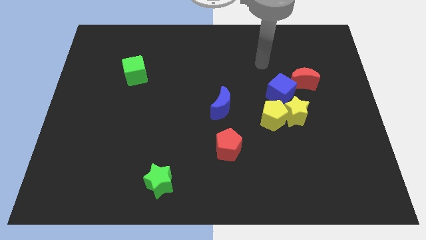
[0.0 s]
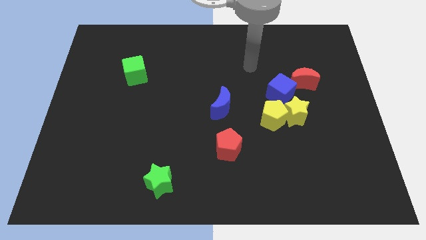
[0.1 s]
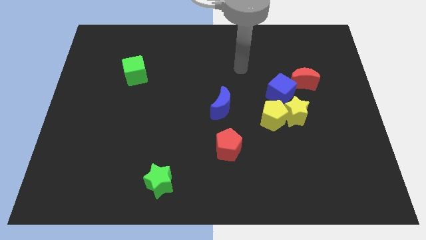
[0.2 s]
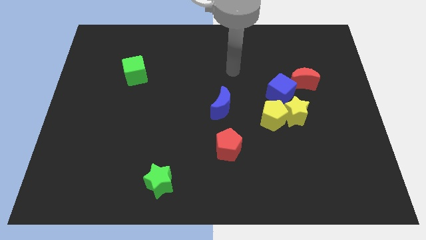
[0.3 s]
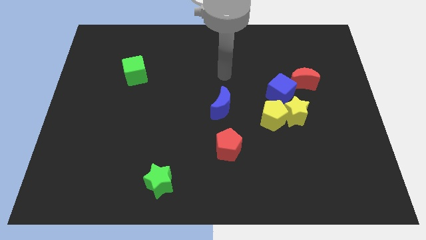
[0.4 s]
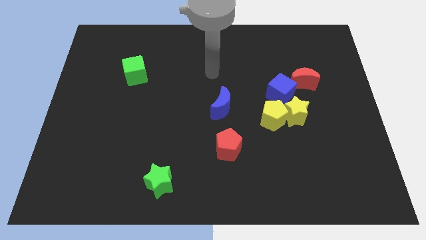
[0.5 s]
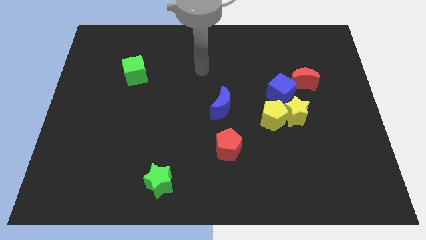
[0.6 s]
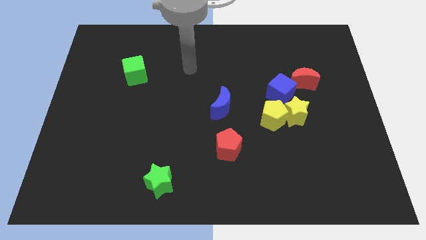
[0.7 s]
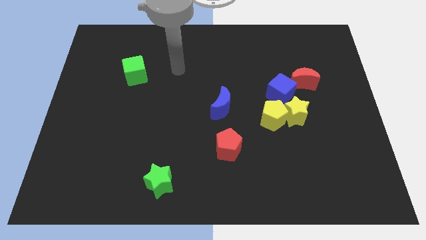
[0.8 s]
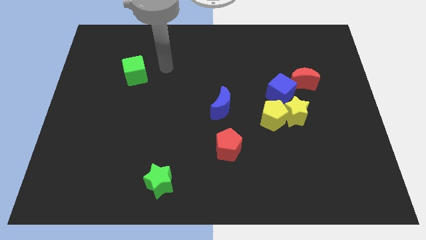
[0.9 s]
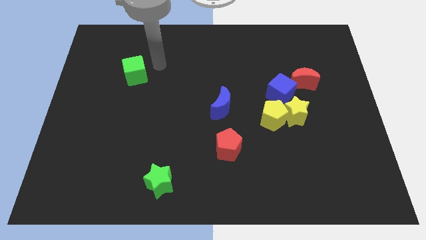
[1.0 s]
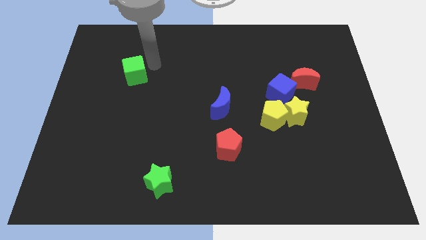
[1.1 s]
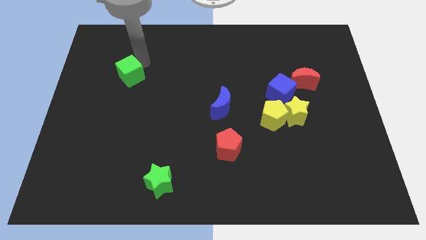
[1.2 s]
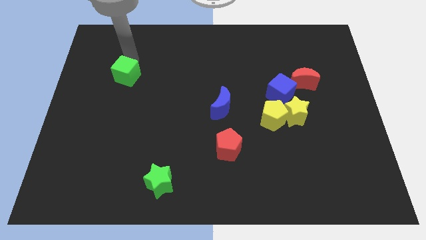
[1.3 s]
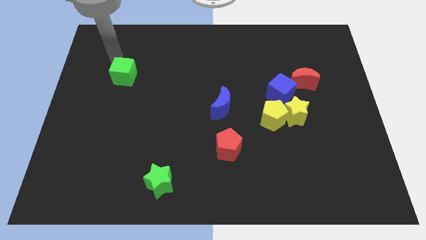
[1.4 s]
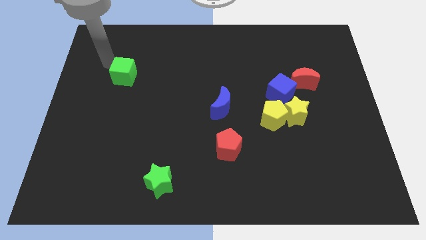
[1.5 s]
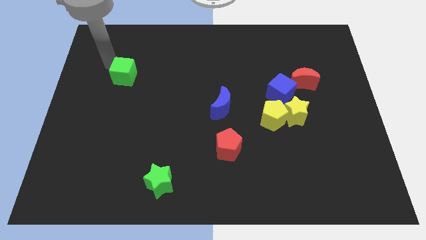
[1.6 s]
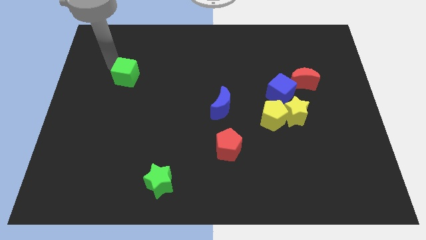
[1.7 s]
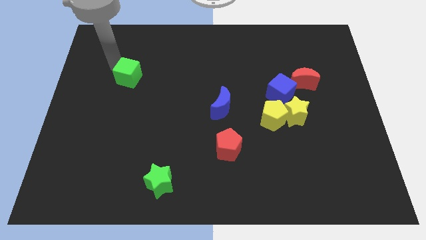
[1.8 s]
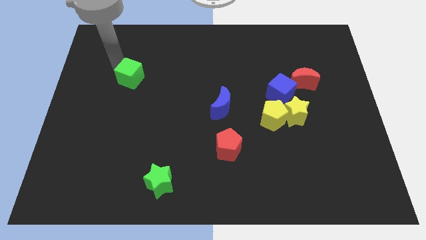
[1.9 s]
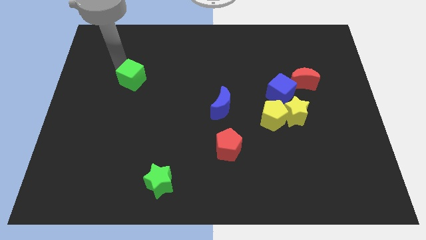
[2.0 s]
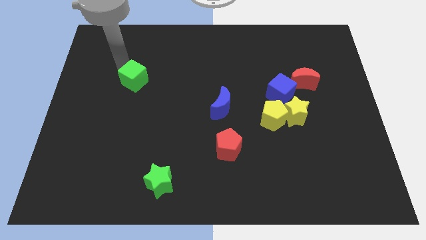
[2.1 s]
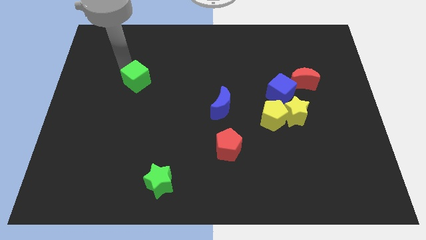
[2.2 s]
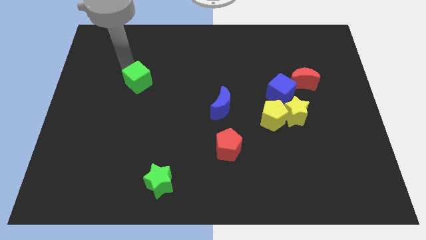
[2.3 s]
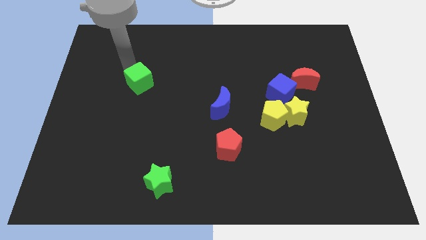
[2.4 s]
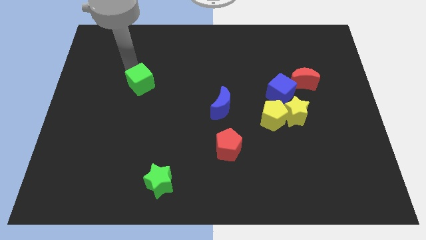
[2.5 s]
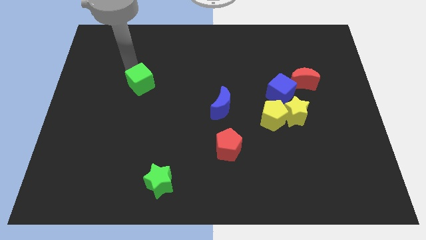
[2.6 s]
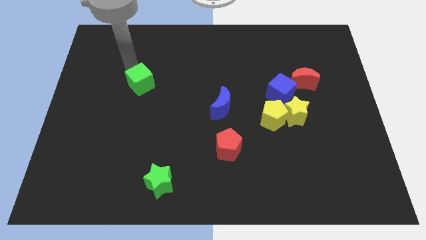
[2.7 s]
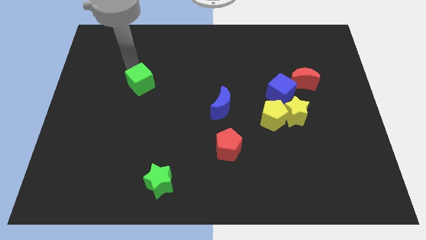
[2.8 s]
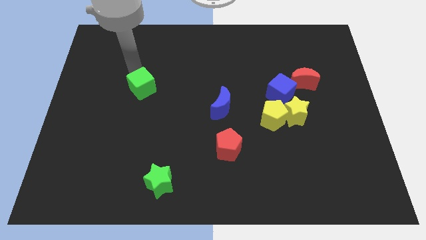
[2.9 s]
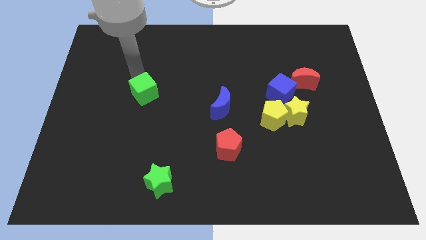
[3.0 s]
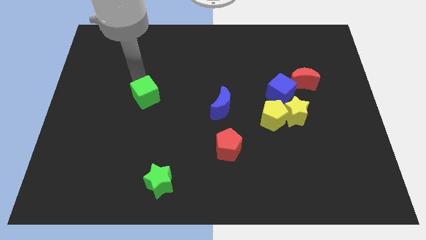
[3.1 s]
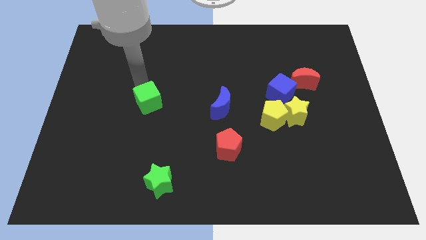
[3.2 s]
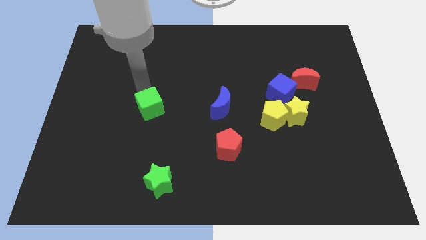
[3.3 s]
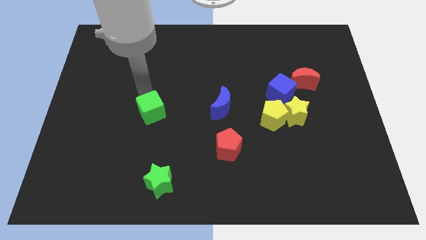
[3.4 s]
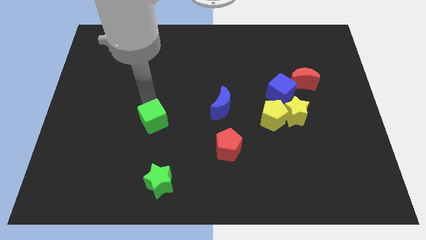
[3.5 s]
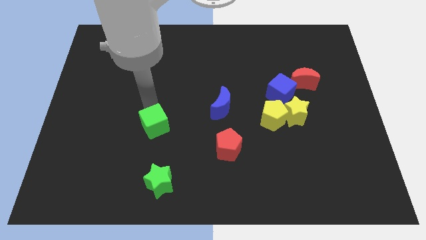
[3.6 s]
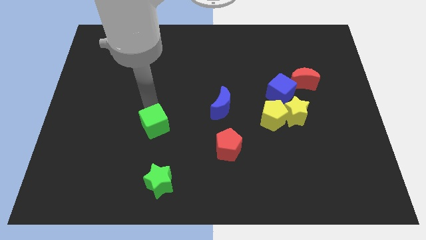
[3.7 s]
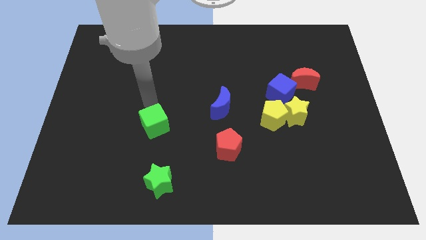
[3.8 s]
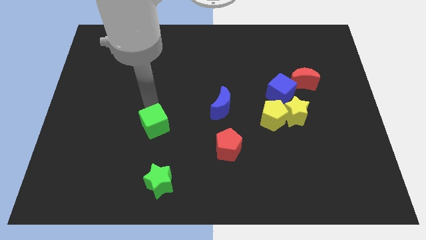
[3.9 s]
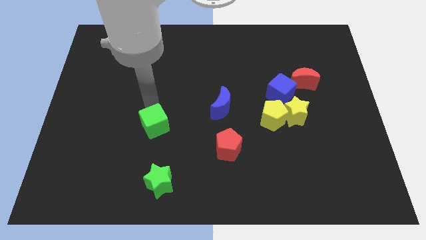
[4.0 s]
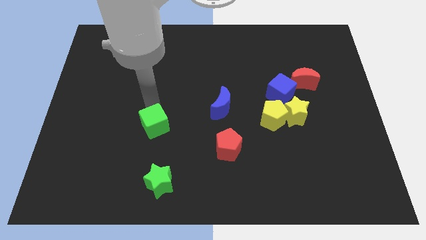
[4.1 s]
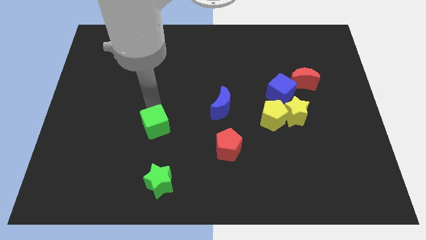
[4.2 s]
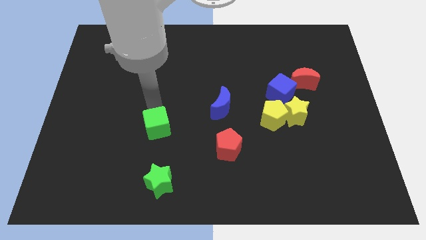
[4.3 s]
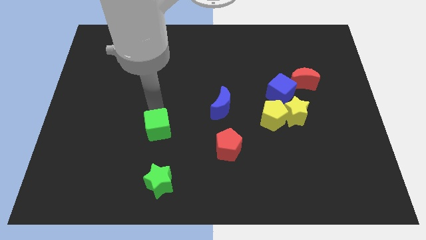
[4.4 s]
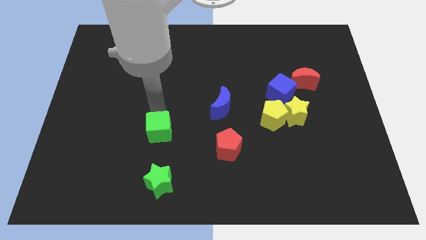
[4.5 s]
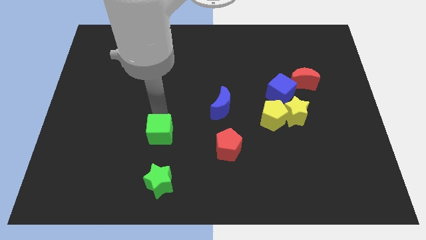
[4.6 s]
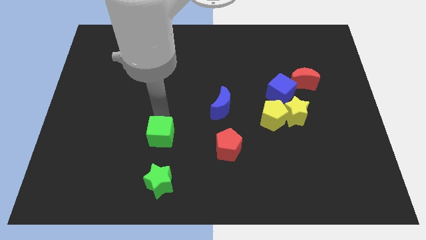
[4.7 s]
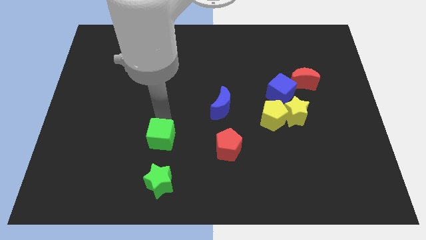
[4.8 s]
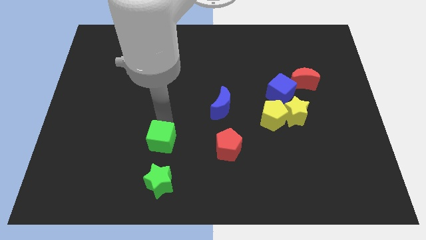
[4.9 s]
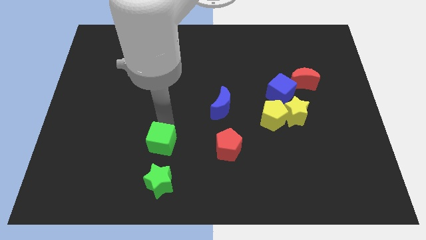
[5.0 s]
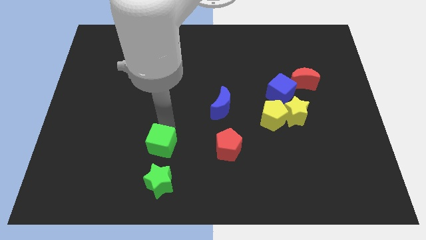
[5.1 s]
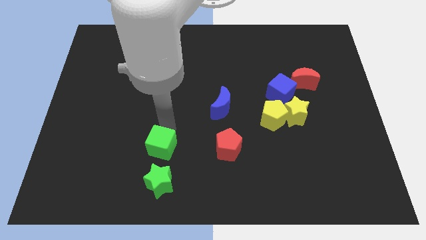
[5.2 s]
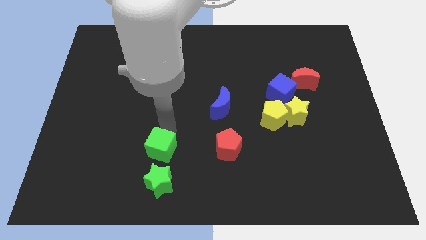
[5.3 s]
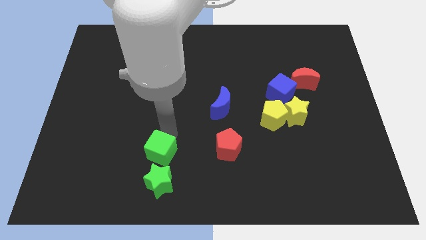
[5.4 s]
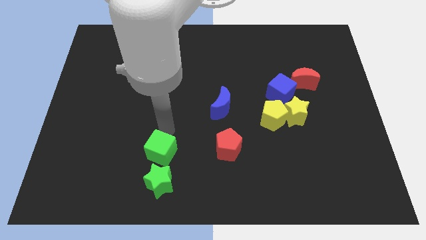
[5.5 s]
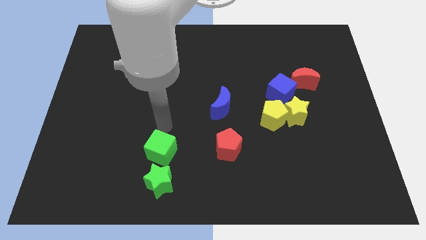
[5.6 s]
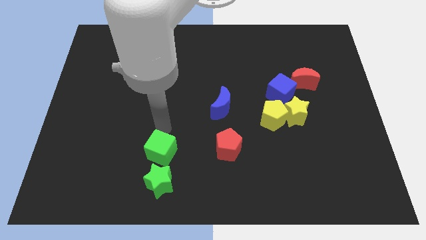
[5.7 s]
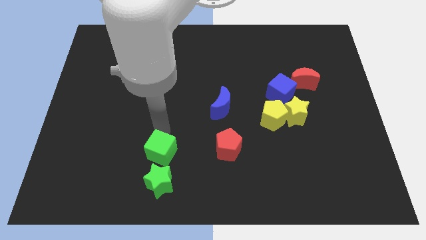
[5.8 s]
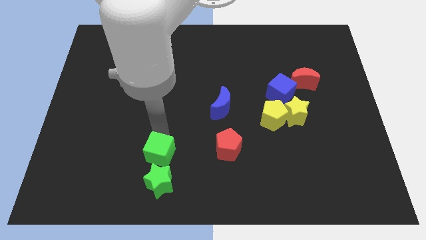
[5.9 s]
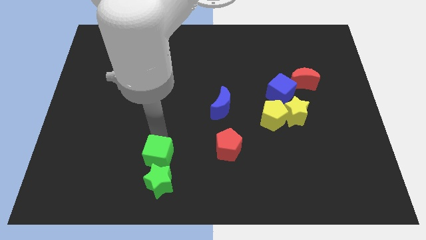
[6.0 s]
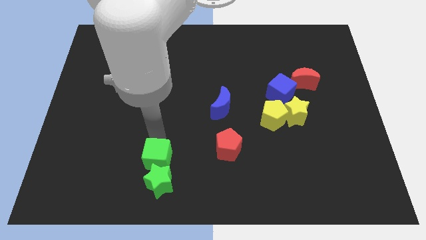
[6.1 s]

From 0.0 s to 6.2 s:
push the green cube close to the green star
